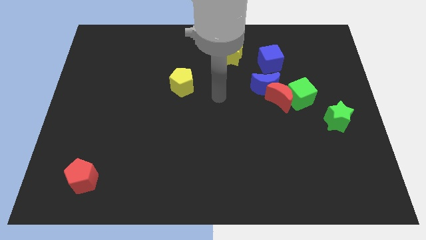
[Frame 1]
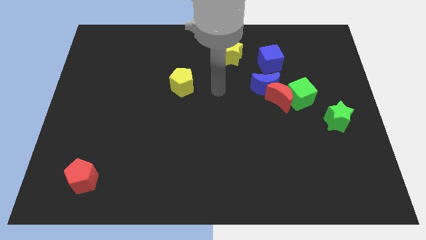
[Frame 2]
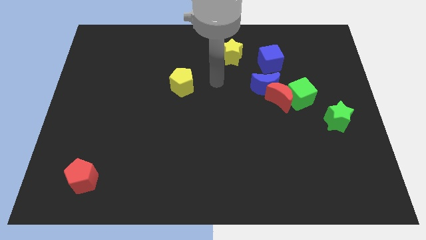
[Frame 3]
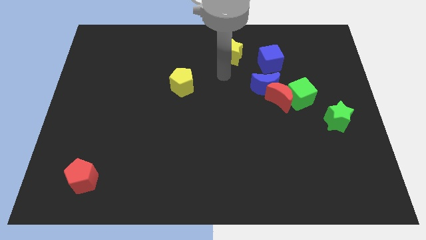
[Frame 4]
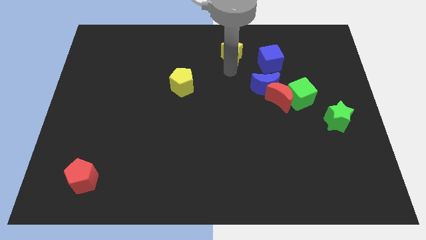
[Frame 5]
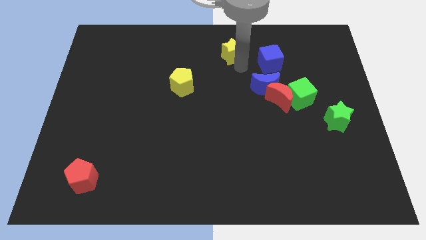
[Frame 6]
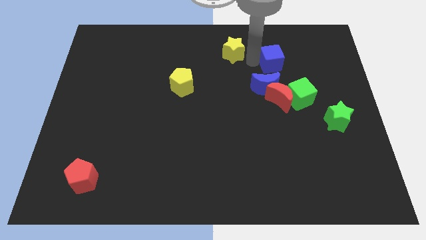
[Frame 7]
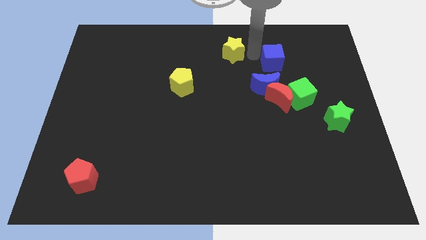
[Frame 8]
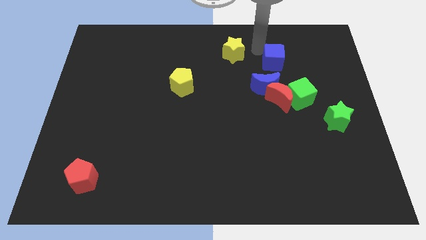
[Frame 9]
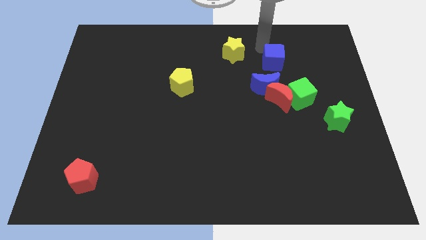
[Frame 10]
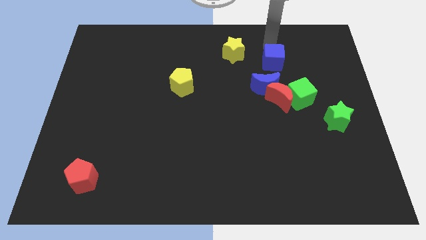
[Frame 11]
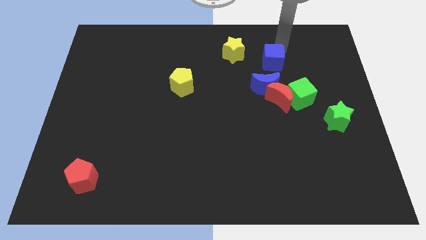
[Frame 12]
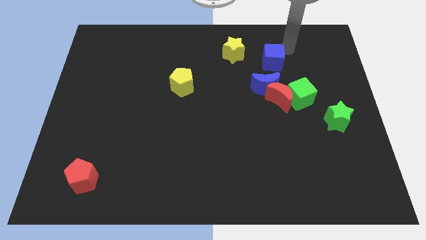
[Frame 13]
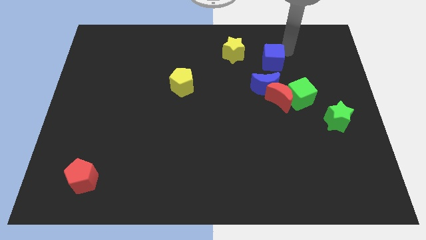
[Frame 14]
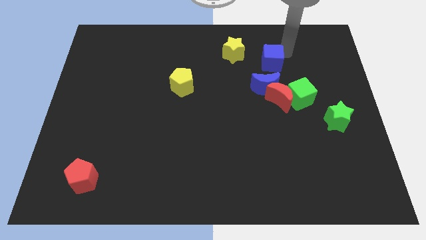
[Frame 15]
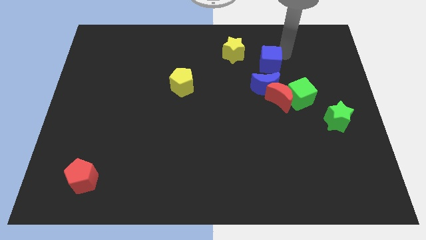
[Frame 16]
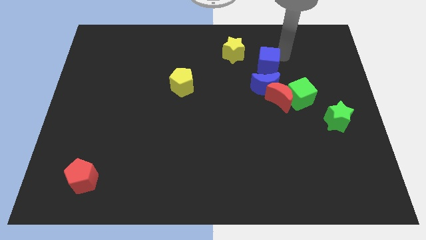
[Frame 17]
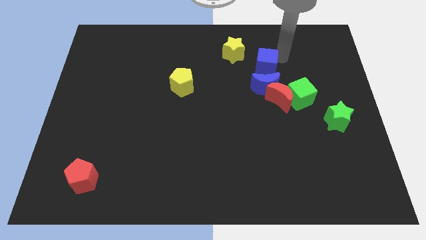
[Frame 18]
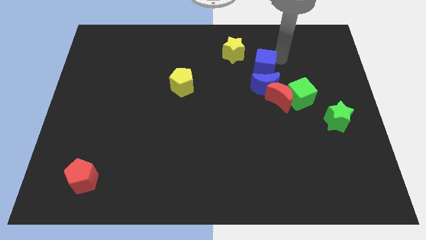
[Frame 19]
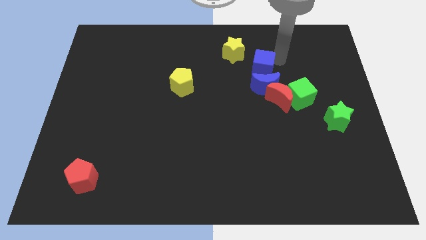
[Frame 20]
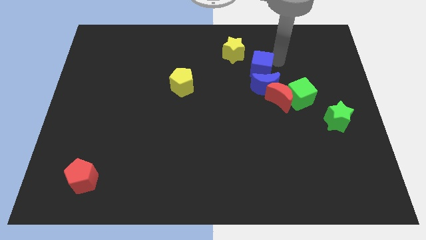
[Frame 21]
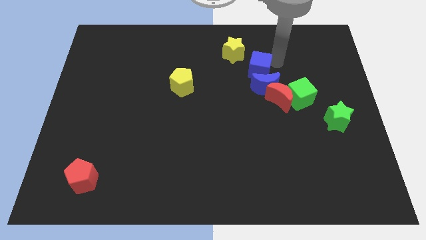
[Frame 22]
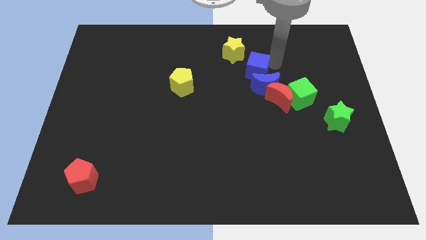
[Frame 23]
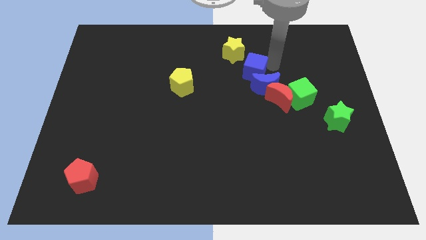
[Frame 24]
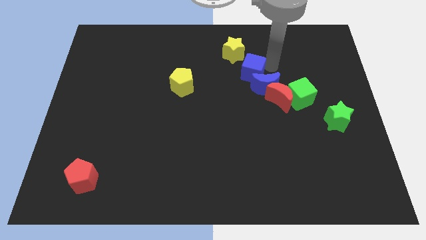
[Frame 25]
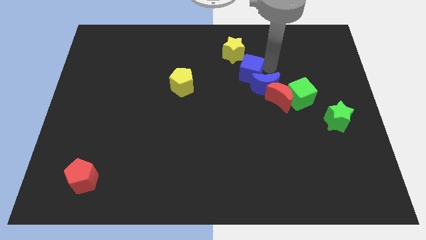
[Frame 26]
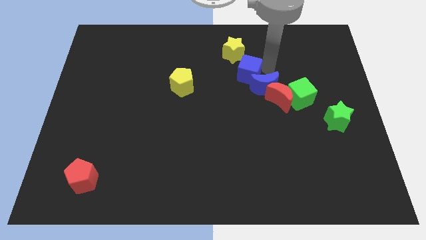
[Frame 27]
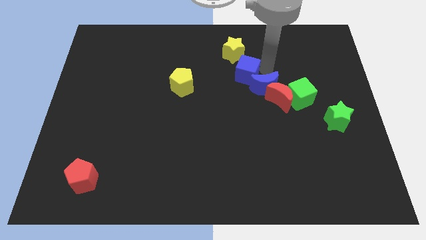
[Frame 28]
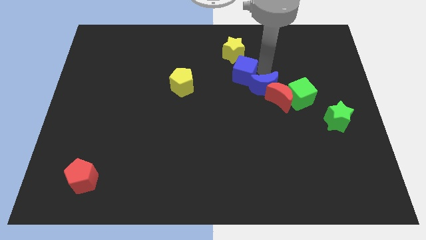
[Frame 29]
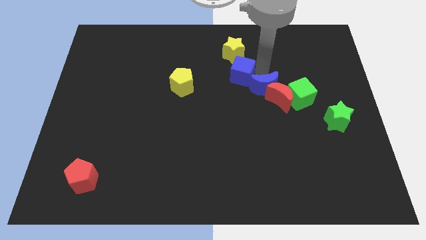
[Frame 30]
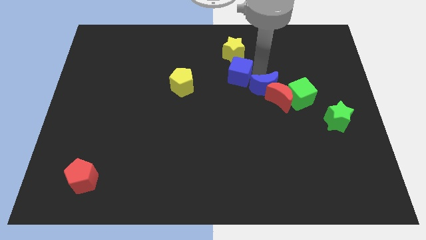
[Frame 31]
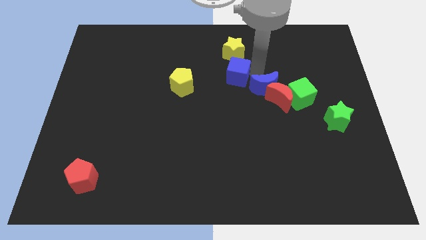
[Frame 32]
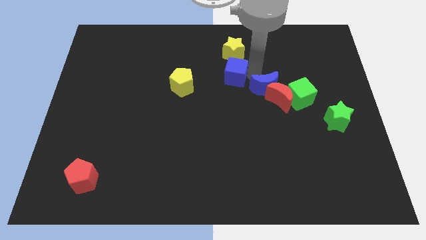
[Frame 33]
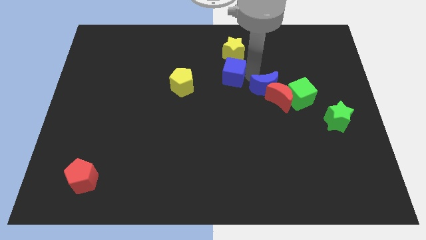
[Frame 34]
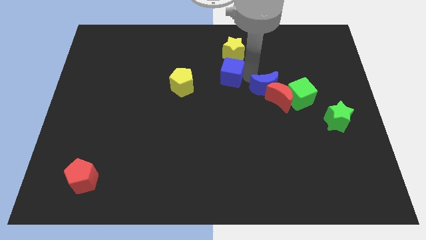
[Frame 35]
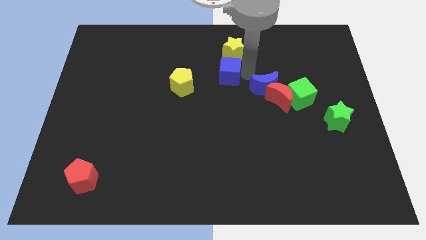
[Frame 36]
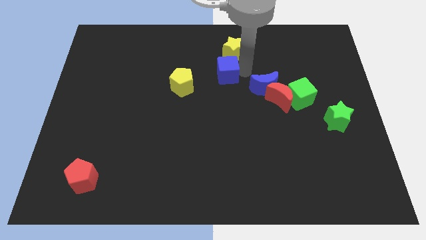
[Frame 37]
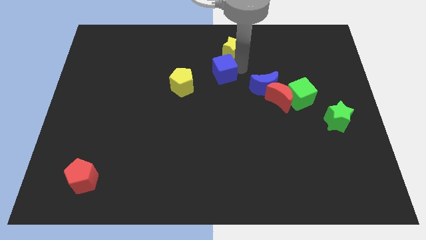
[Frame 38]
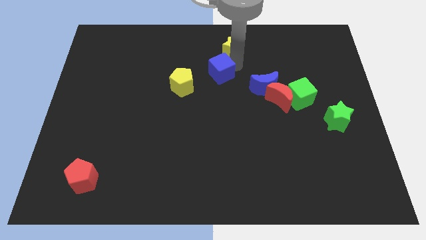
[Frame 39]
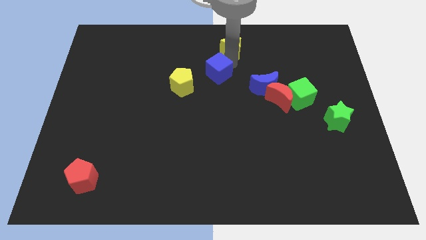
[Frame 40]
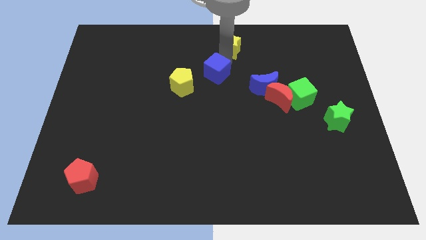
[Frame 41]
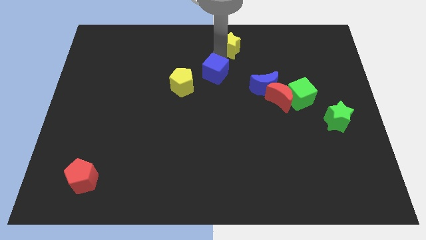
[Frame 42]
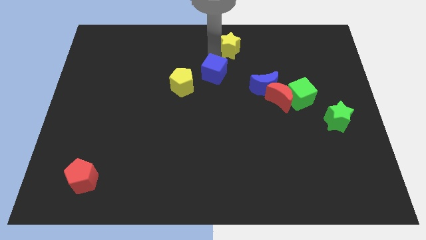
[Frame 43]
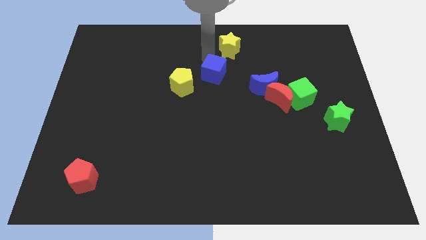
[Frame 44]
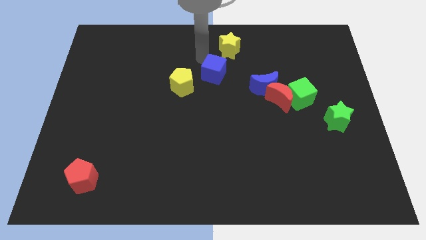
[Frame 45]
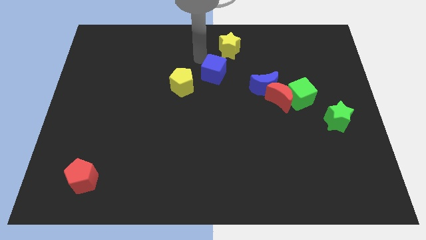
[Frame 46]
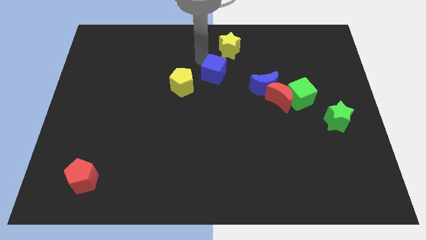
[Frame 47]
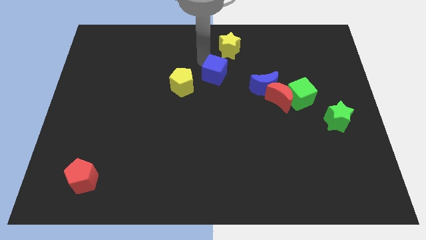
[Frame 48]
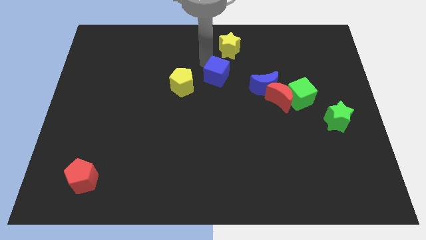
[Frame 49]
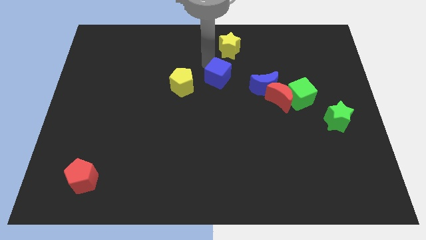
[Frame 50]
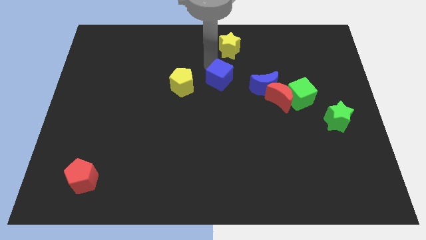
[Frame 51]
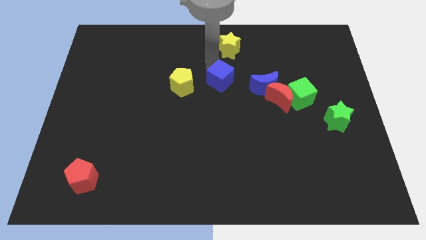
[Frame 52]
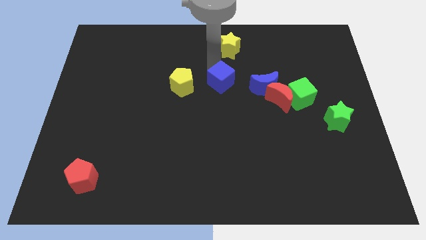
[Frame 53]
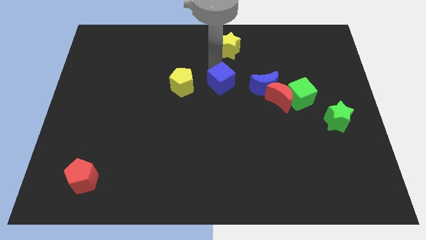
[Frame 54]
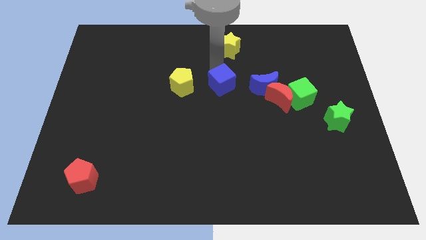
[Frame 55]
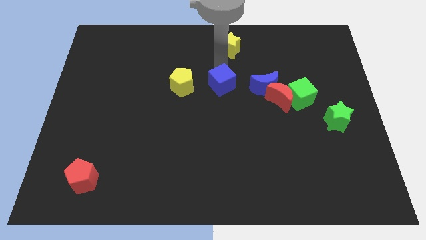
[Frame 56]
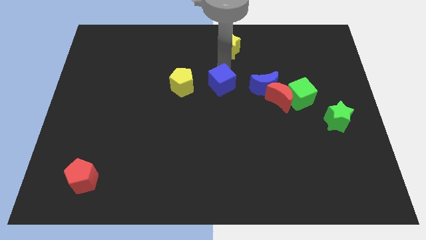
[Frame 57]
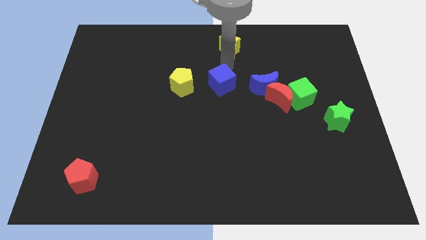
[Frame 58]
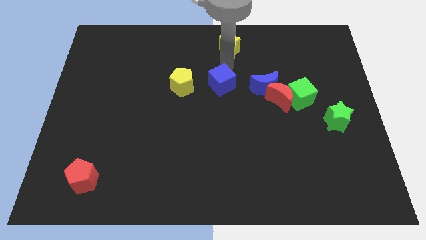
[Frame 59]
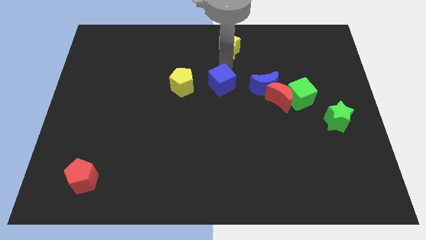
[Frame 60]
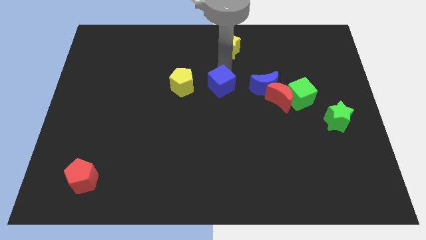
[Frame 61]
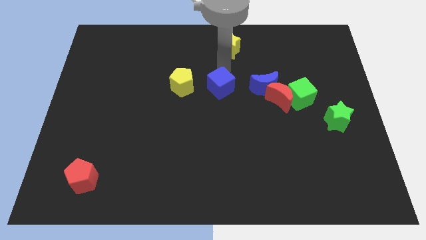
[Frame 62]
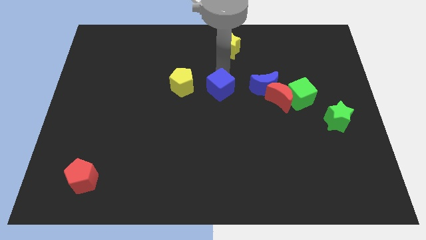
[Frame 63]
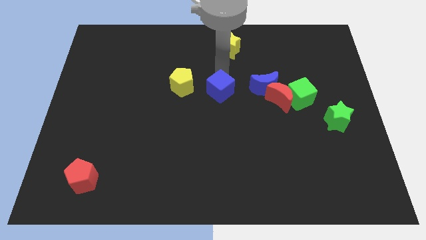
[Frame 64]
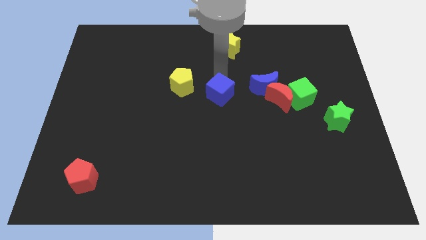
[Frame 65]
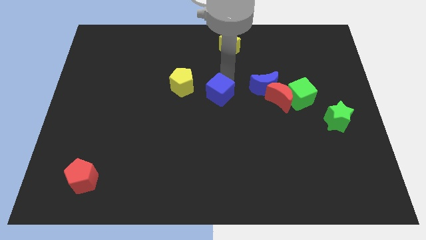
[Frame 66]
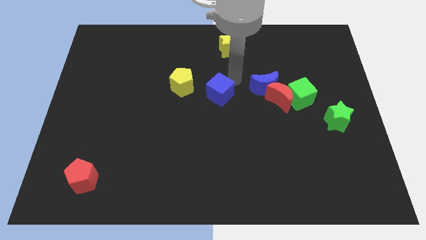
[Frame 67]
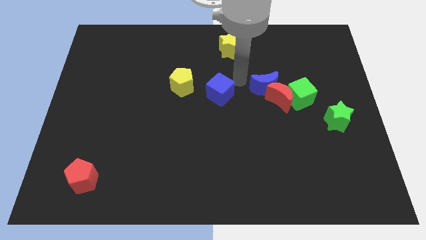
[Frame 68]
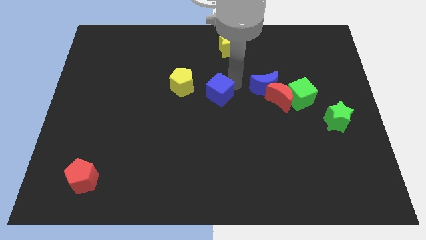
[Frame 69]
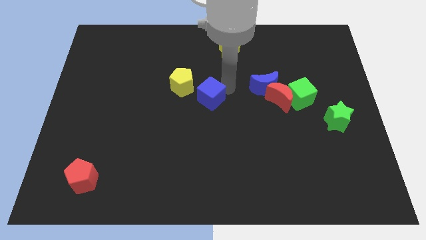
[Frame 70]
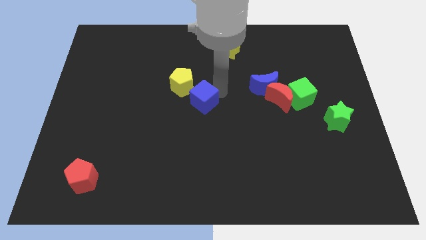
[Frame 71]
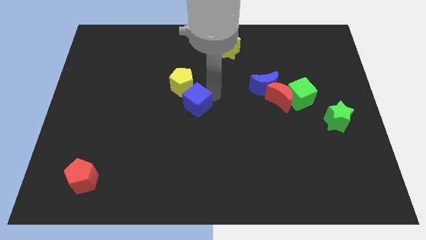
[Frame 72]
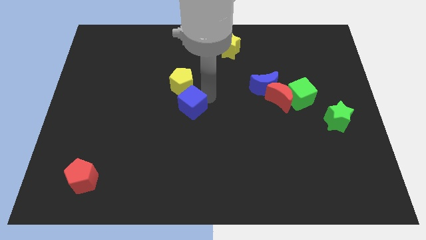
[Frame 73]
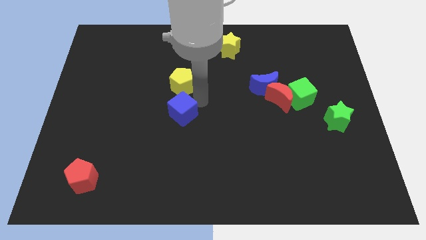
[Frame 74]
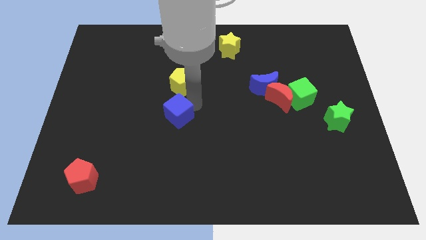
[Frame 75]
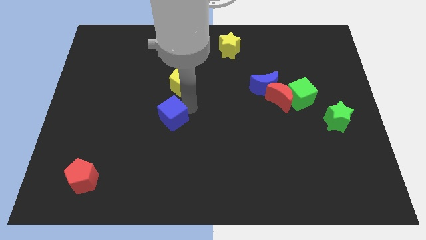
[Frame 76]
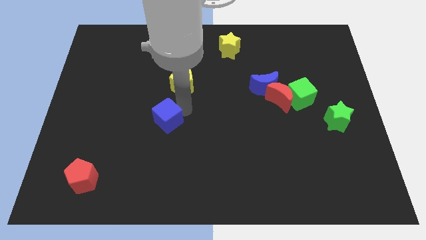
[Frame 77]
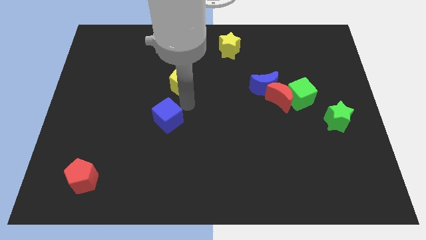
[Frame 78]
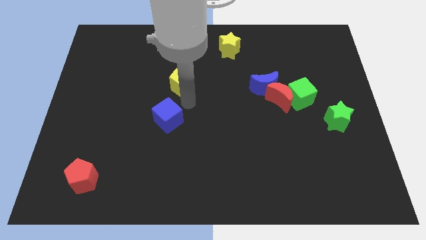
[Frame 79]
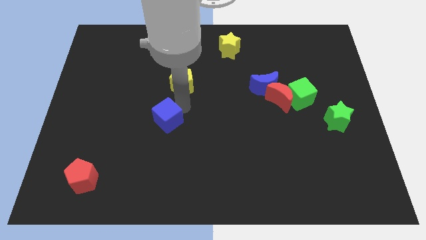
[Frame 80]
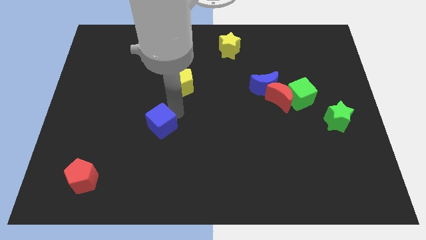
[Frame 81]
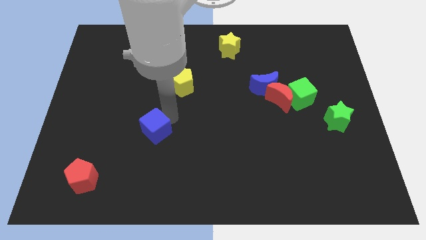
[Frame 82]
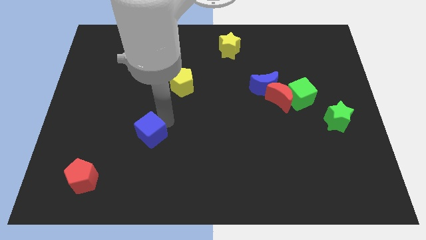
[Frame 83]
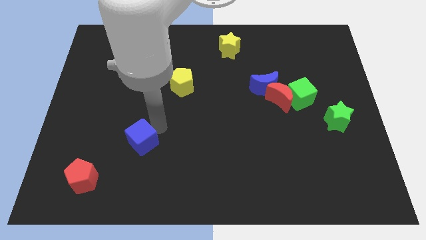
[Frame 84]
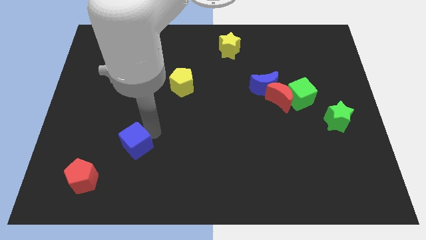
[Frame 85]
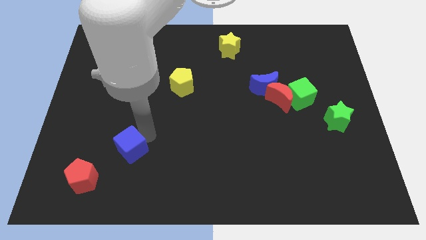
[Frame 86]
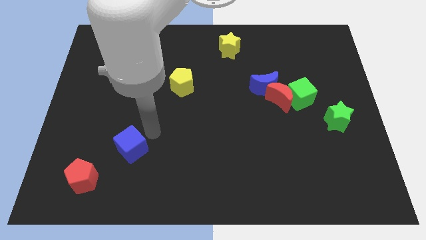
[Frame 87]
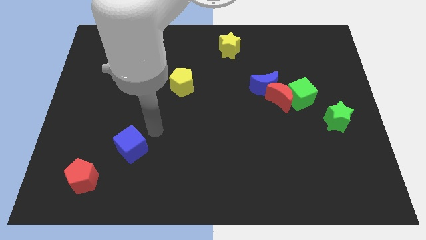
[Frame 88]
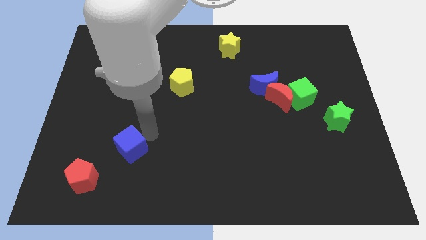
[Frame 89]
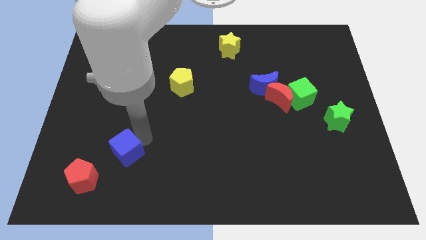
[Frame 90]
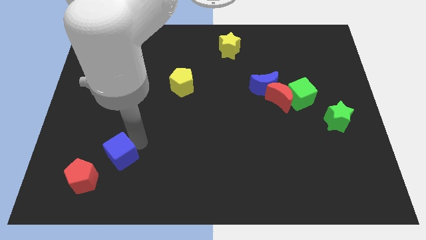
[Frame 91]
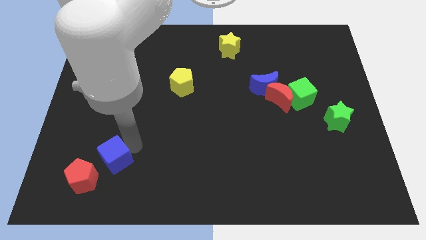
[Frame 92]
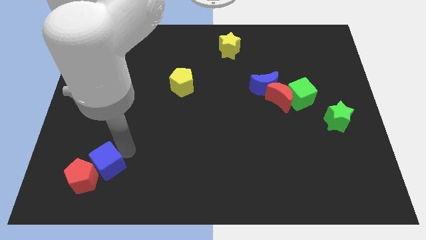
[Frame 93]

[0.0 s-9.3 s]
put the blue cube next to the red pentagon
